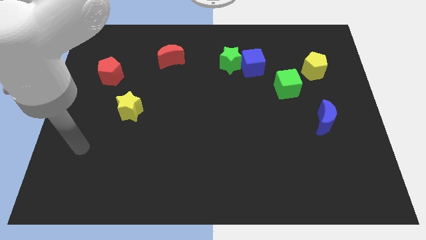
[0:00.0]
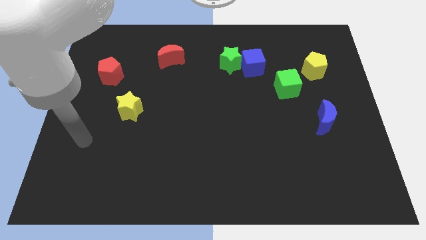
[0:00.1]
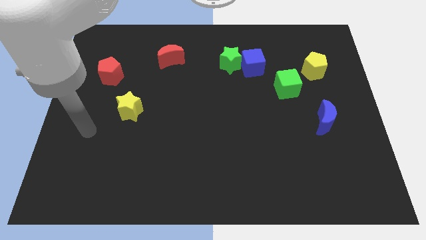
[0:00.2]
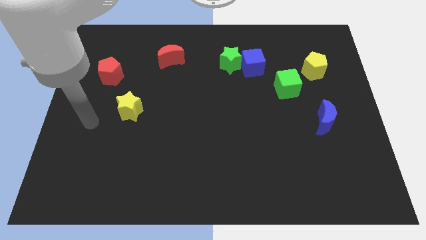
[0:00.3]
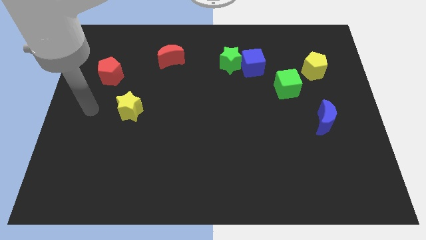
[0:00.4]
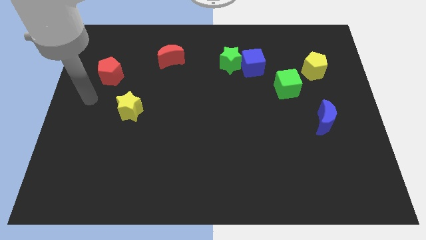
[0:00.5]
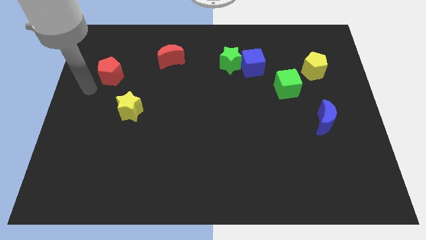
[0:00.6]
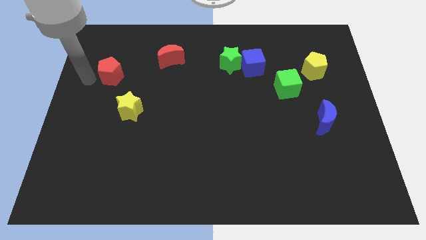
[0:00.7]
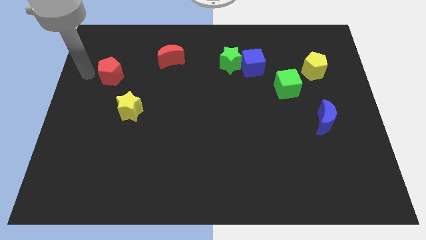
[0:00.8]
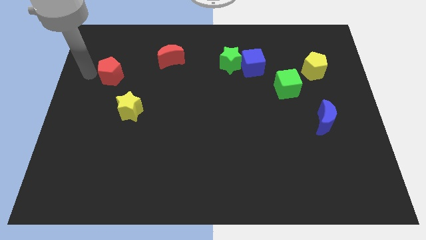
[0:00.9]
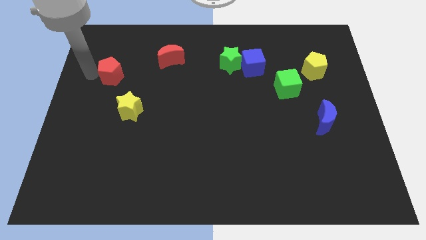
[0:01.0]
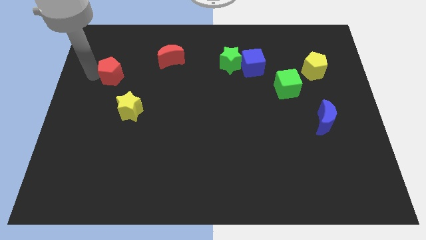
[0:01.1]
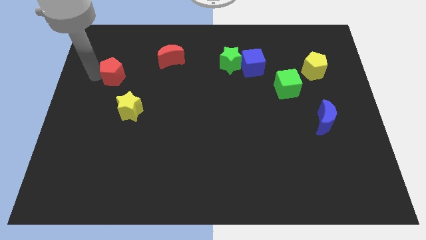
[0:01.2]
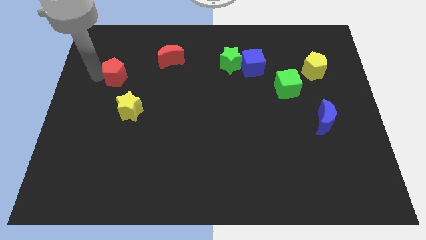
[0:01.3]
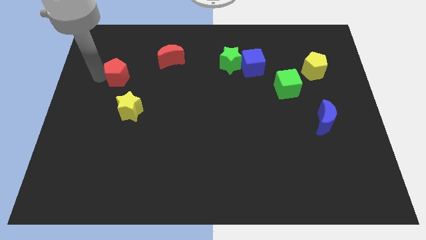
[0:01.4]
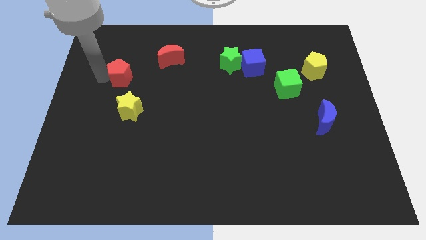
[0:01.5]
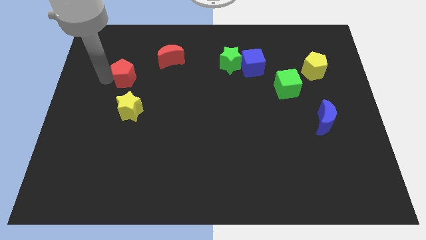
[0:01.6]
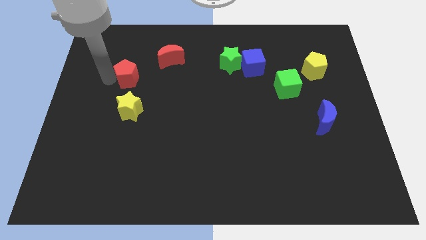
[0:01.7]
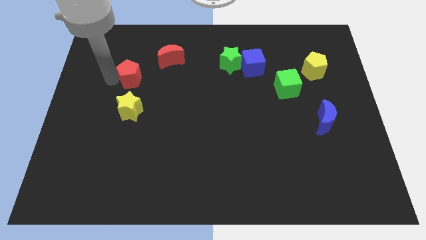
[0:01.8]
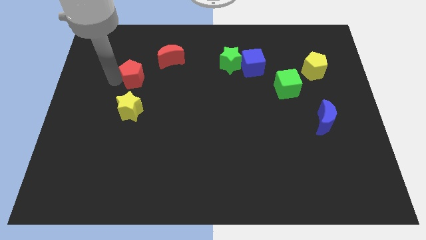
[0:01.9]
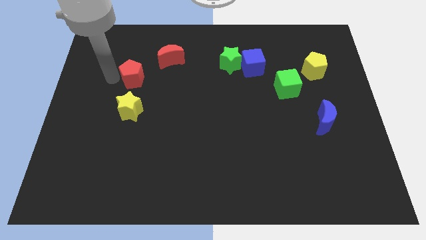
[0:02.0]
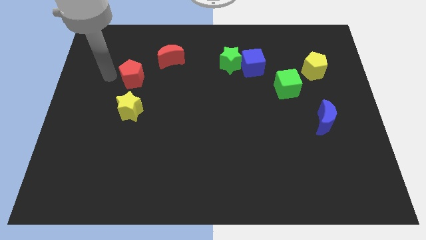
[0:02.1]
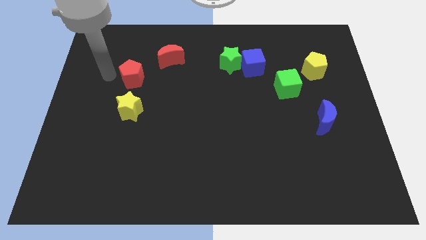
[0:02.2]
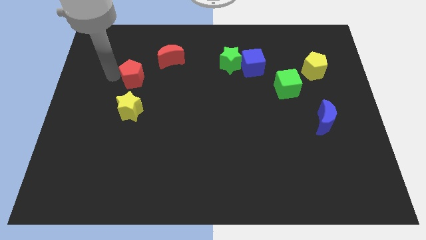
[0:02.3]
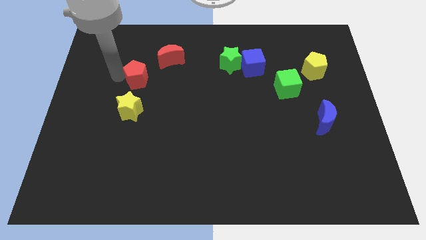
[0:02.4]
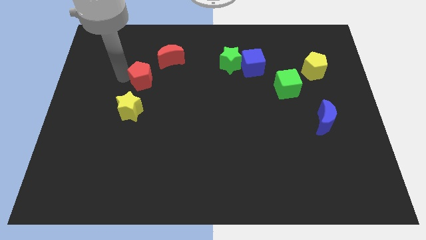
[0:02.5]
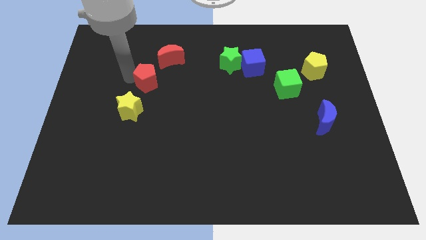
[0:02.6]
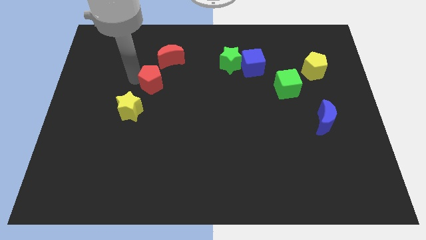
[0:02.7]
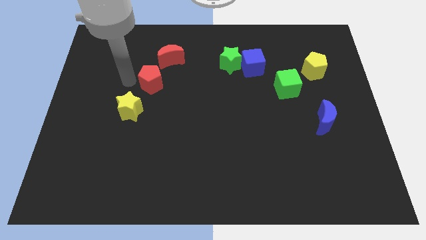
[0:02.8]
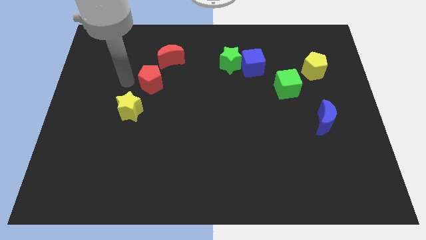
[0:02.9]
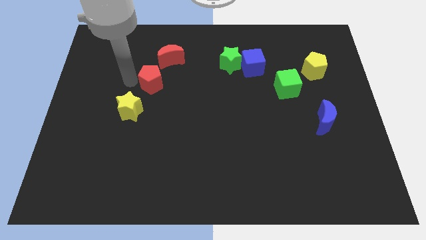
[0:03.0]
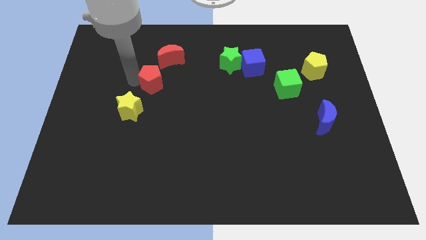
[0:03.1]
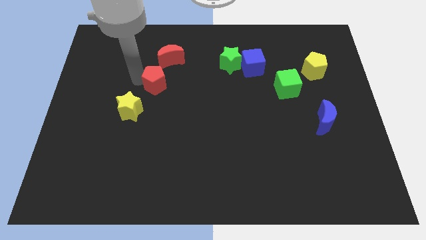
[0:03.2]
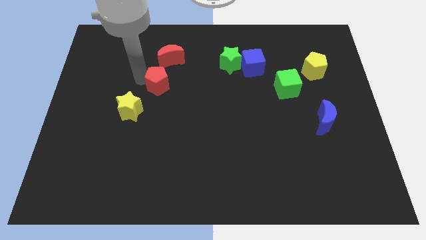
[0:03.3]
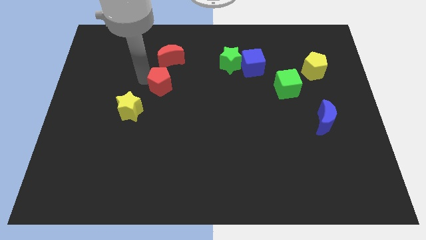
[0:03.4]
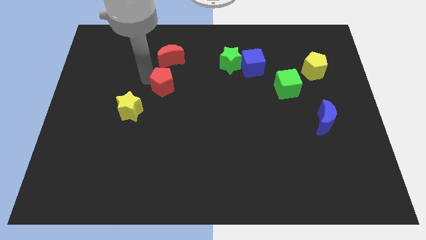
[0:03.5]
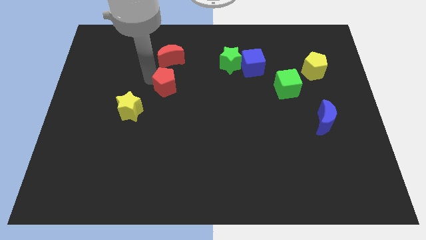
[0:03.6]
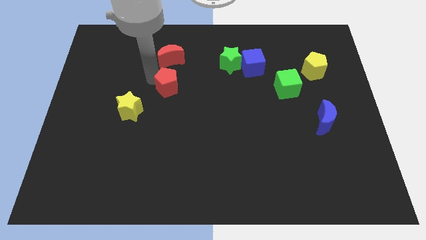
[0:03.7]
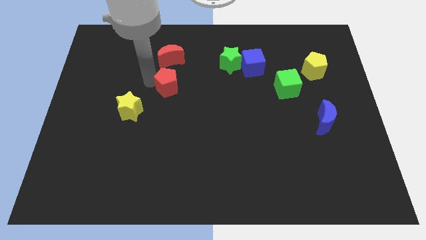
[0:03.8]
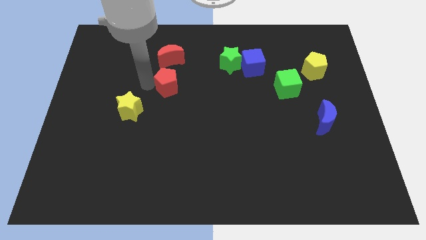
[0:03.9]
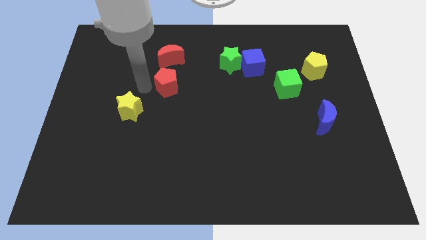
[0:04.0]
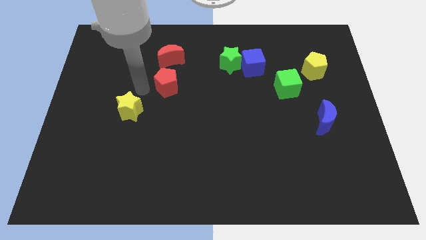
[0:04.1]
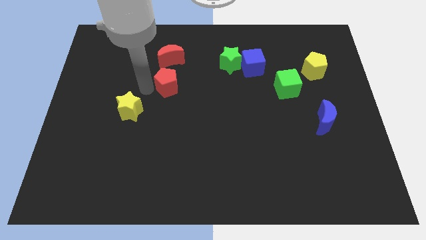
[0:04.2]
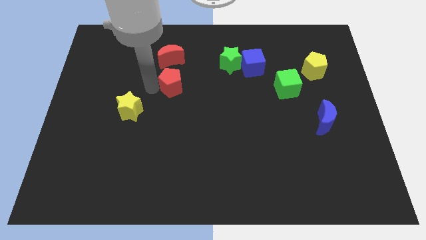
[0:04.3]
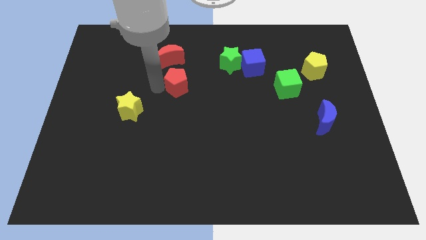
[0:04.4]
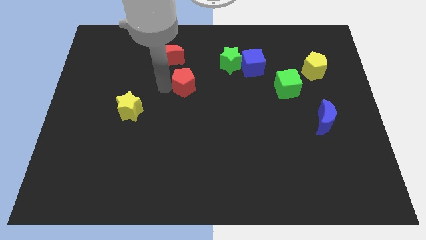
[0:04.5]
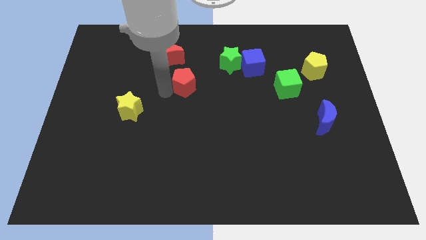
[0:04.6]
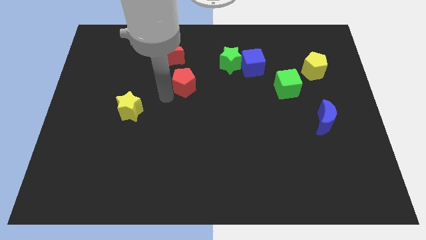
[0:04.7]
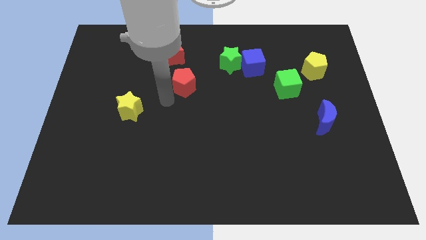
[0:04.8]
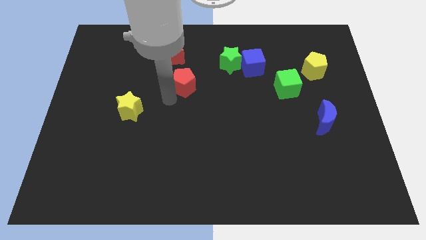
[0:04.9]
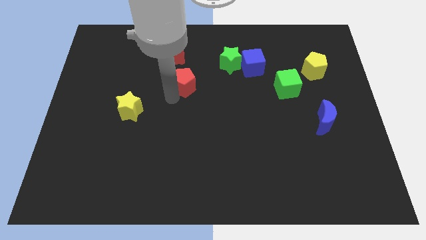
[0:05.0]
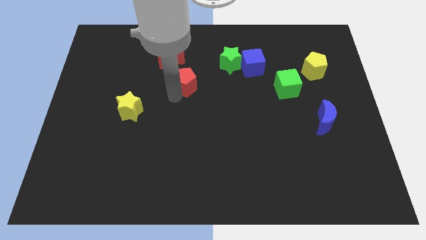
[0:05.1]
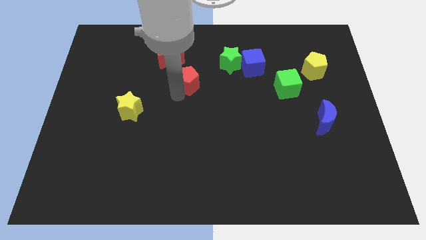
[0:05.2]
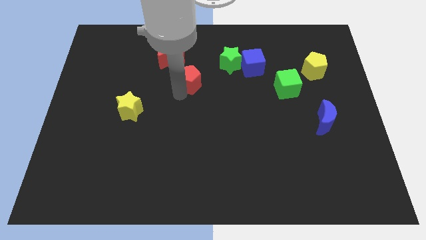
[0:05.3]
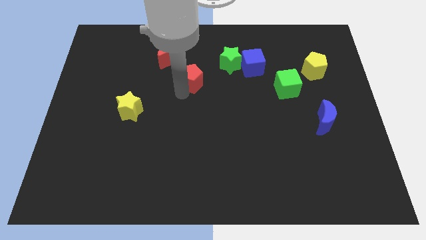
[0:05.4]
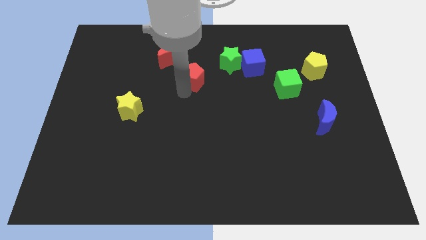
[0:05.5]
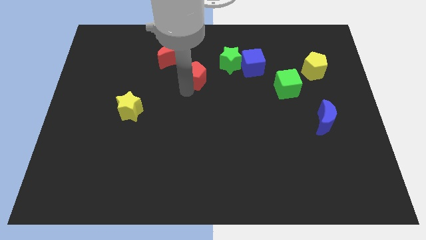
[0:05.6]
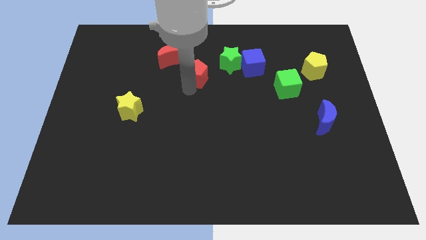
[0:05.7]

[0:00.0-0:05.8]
put the red pentagon left of the blue cube

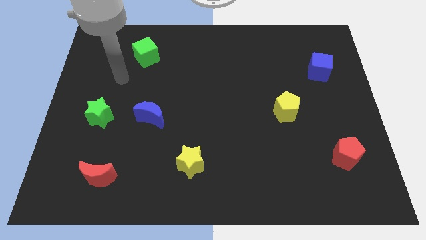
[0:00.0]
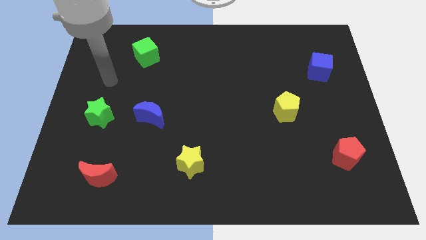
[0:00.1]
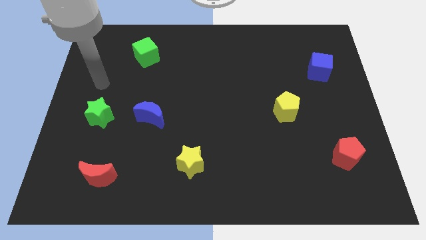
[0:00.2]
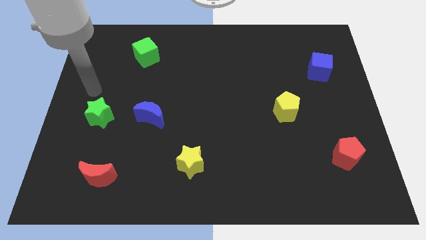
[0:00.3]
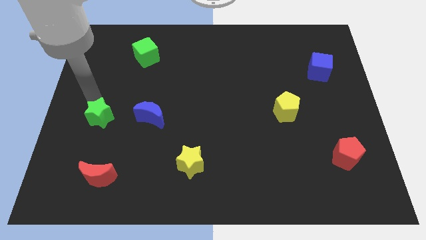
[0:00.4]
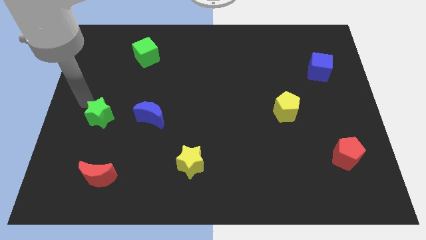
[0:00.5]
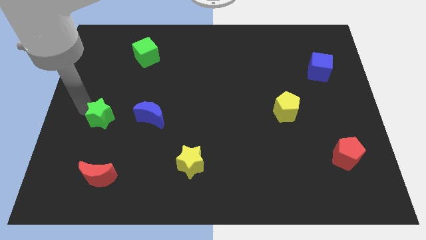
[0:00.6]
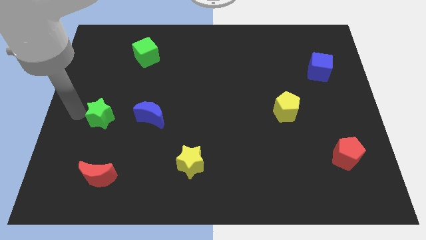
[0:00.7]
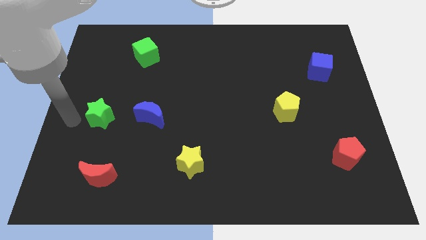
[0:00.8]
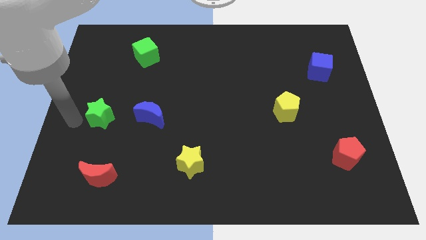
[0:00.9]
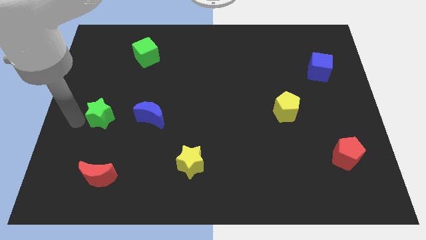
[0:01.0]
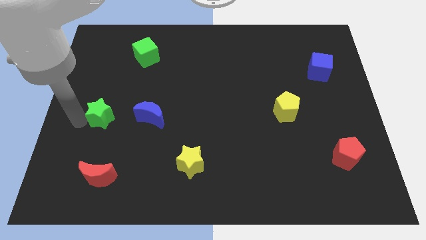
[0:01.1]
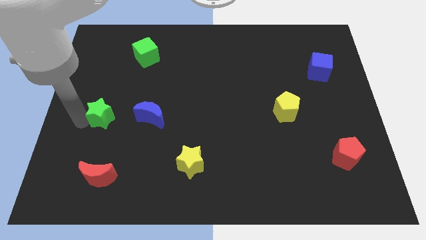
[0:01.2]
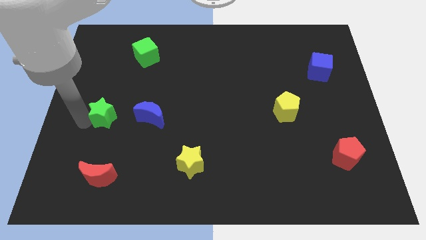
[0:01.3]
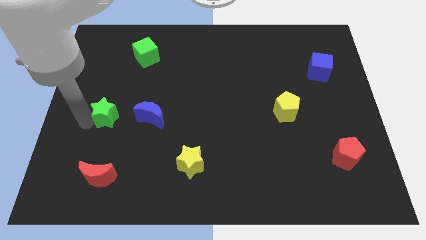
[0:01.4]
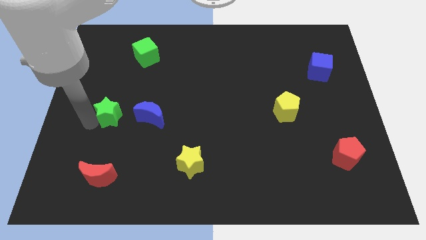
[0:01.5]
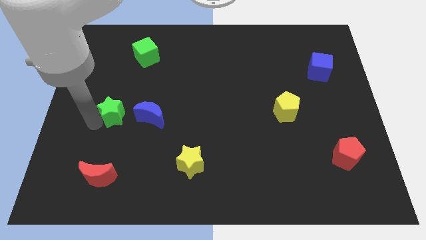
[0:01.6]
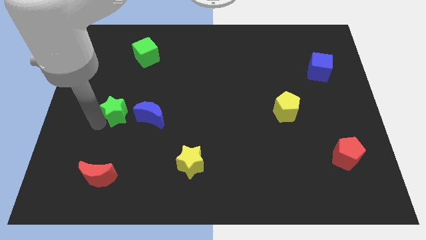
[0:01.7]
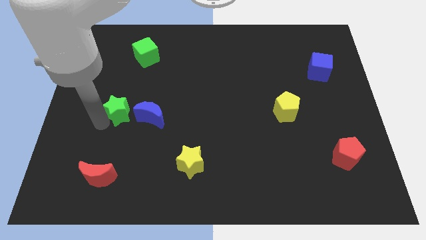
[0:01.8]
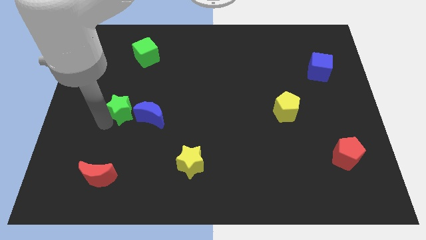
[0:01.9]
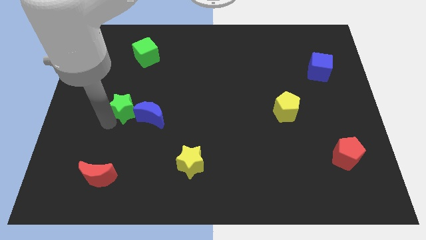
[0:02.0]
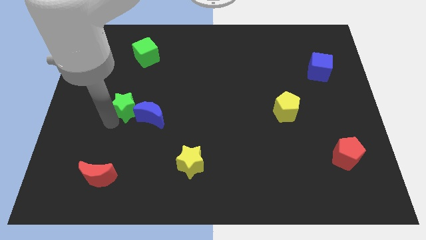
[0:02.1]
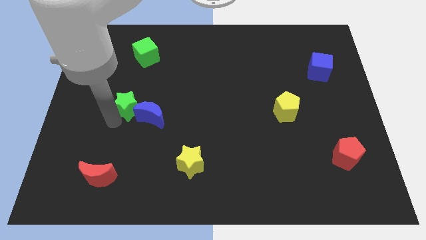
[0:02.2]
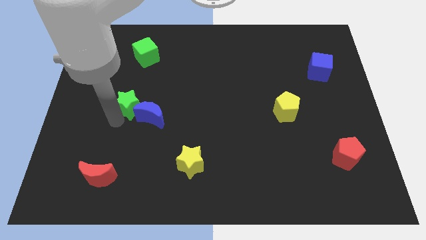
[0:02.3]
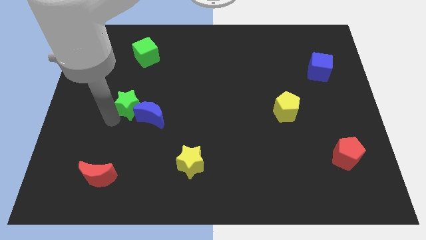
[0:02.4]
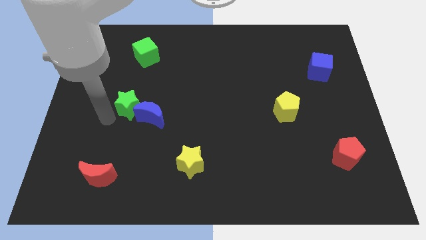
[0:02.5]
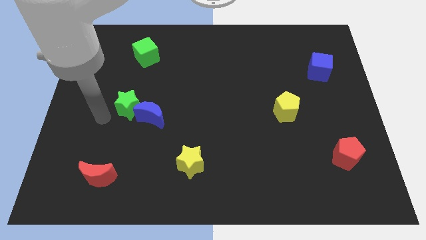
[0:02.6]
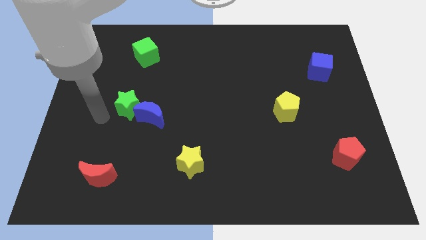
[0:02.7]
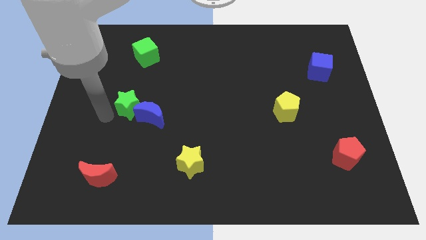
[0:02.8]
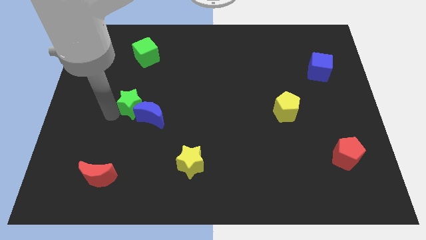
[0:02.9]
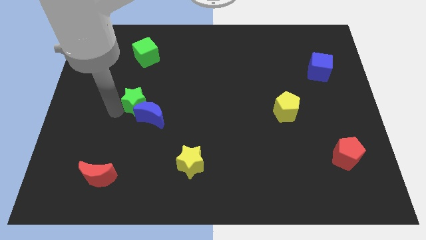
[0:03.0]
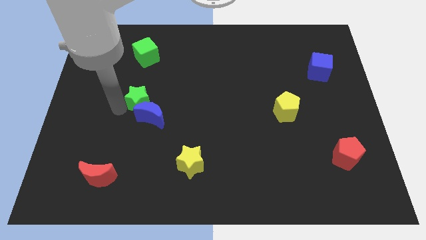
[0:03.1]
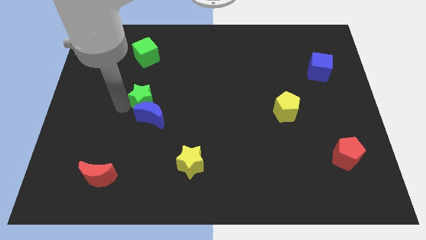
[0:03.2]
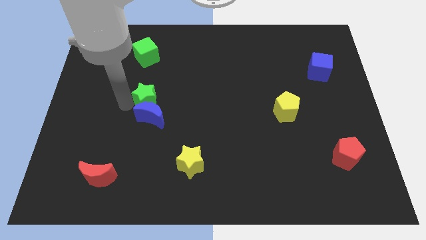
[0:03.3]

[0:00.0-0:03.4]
slide the green star to the top right side of the blue moon
